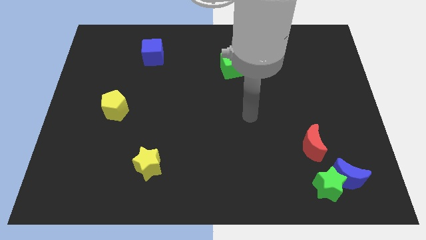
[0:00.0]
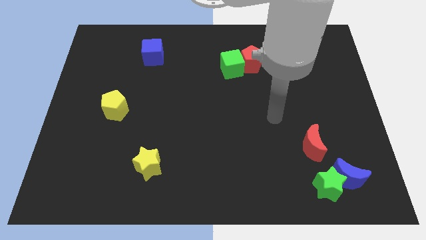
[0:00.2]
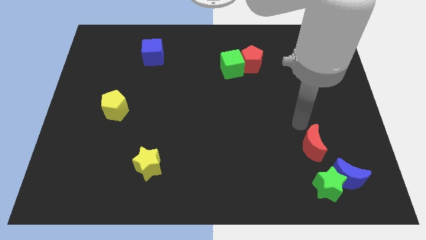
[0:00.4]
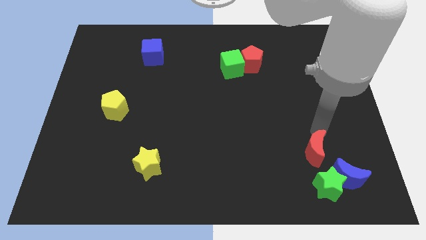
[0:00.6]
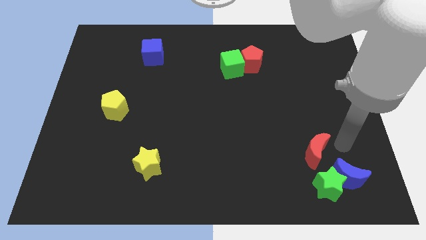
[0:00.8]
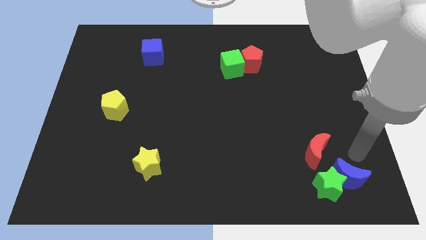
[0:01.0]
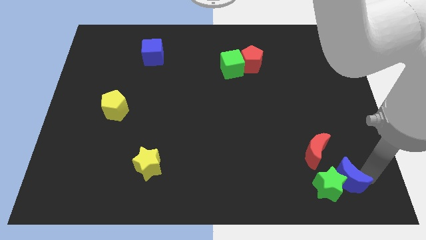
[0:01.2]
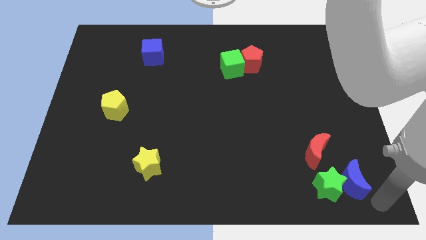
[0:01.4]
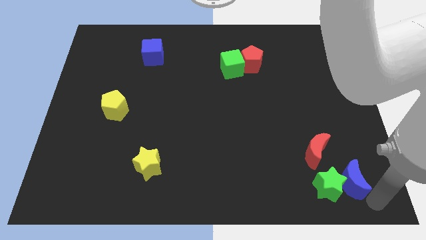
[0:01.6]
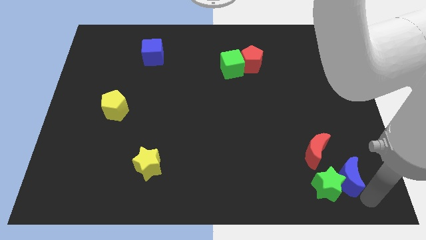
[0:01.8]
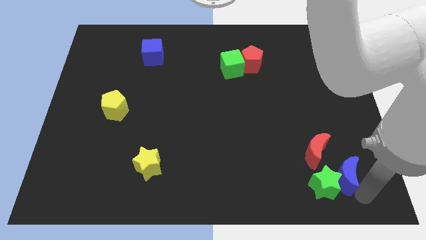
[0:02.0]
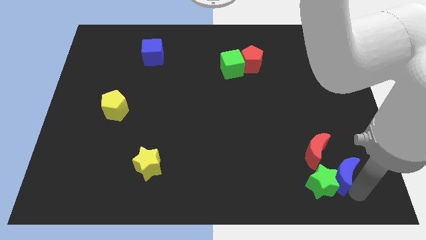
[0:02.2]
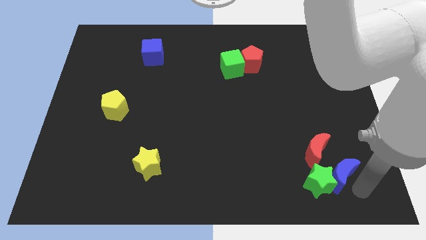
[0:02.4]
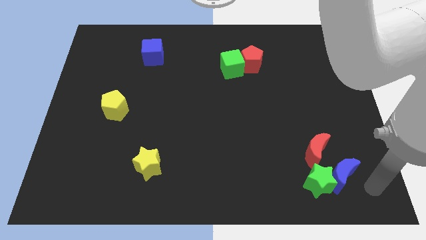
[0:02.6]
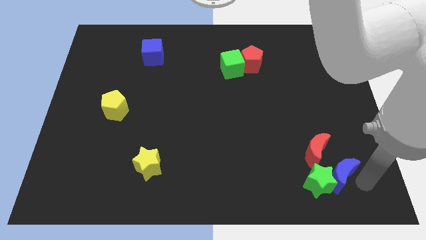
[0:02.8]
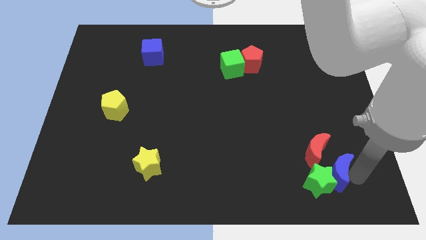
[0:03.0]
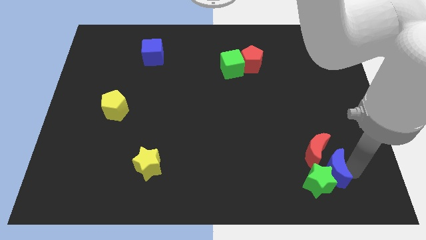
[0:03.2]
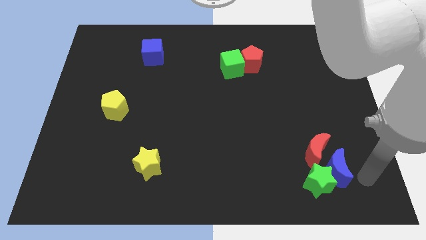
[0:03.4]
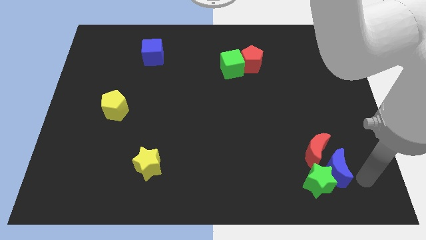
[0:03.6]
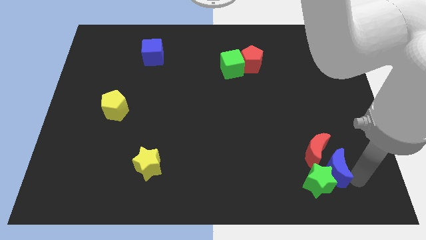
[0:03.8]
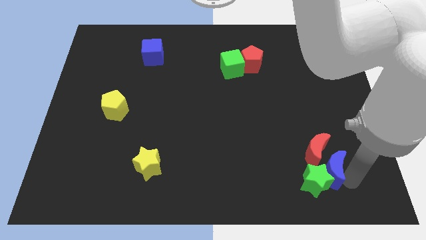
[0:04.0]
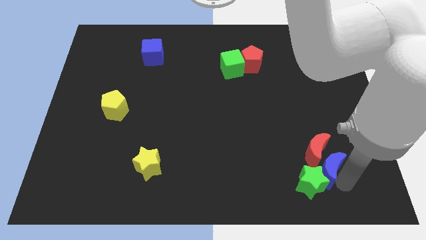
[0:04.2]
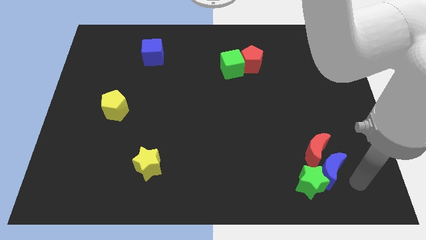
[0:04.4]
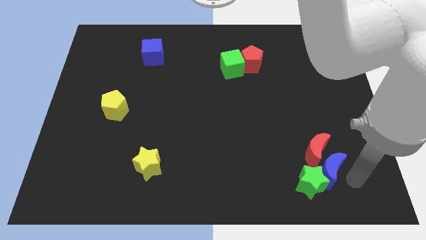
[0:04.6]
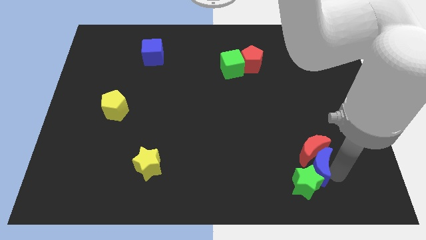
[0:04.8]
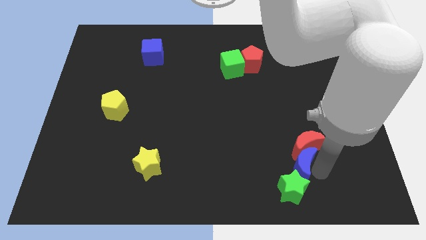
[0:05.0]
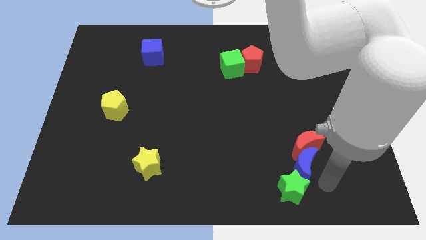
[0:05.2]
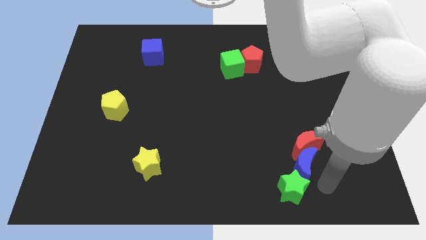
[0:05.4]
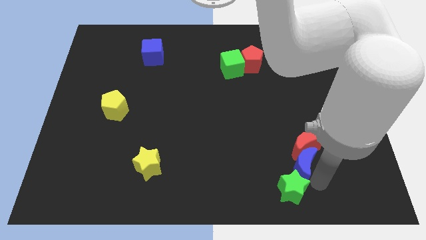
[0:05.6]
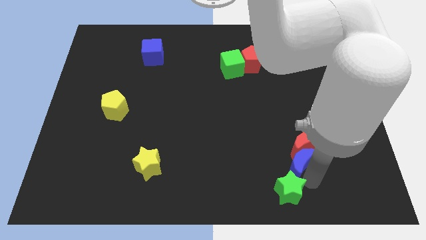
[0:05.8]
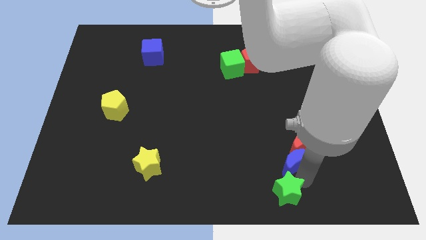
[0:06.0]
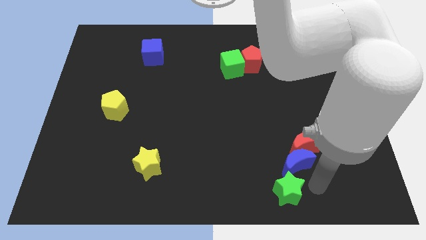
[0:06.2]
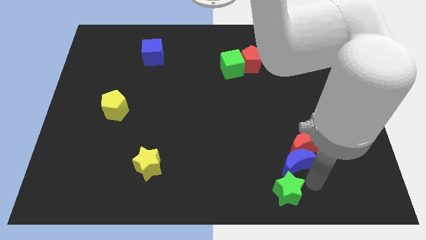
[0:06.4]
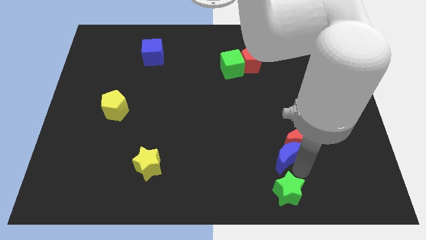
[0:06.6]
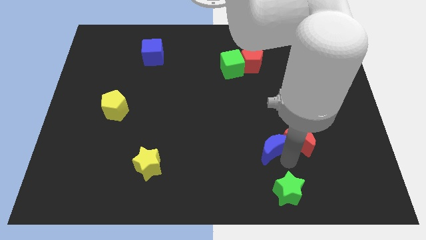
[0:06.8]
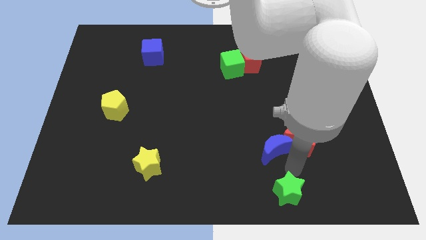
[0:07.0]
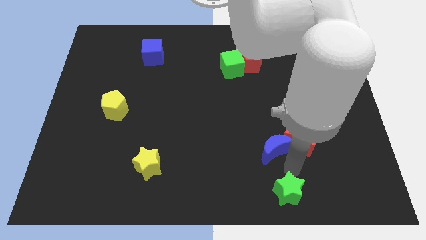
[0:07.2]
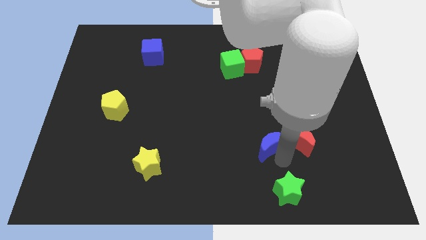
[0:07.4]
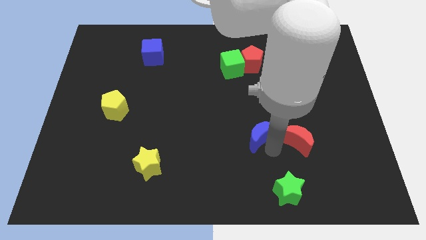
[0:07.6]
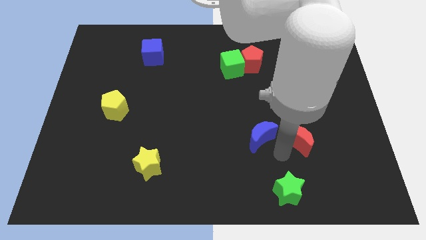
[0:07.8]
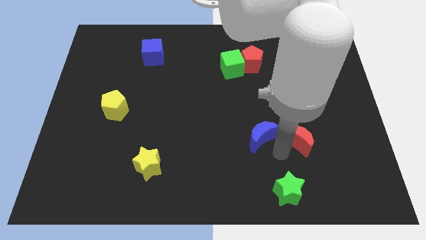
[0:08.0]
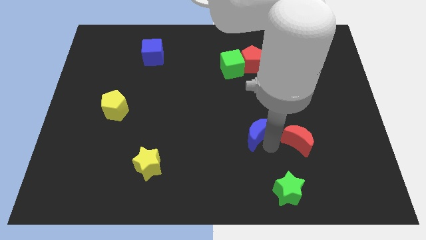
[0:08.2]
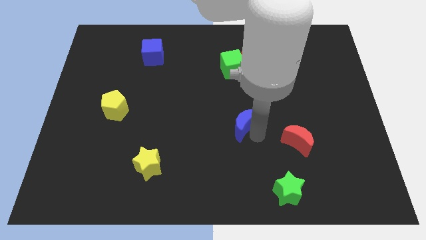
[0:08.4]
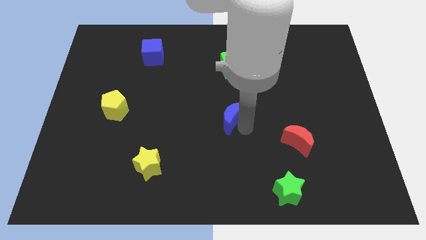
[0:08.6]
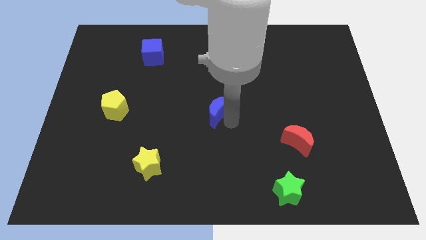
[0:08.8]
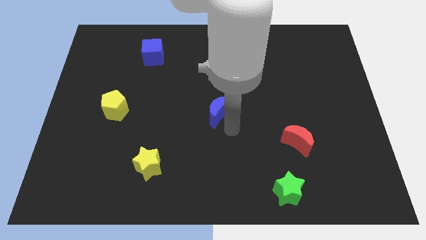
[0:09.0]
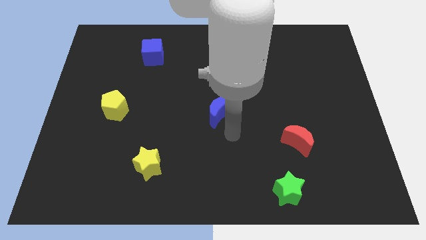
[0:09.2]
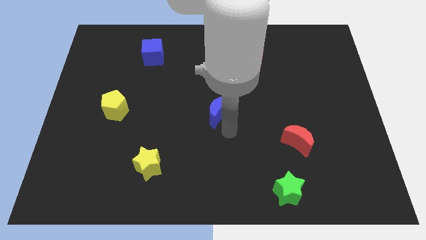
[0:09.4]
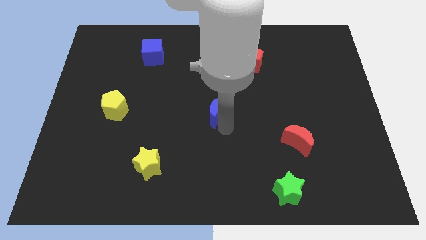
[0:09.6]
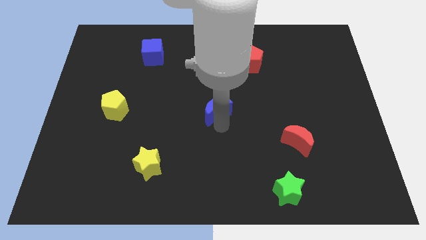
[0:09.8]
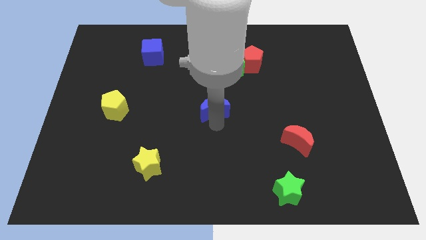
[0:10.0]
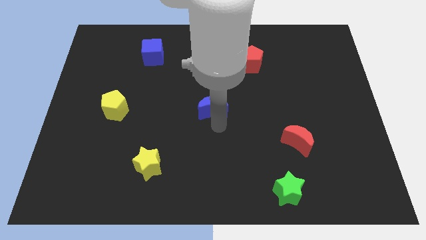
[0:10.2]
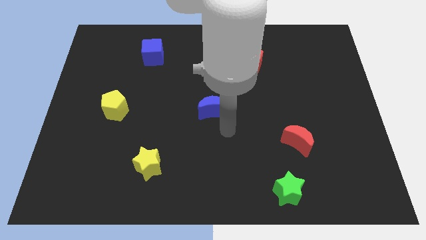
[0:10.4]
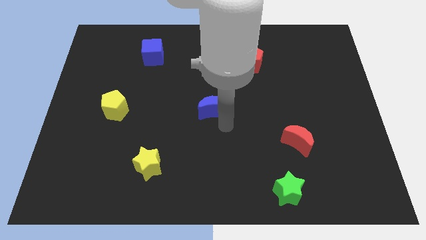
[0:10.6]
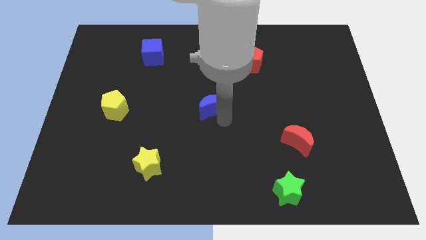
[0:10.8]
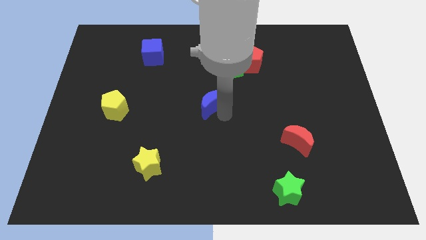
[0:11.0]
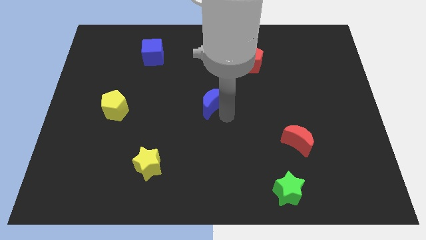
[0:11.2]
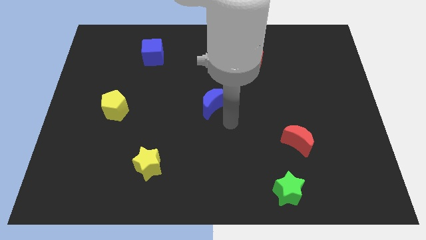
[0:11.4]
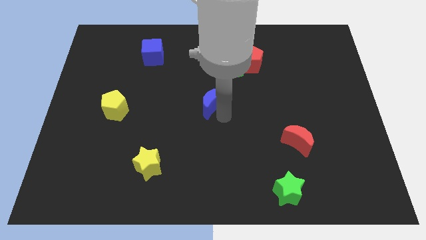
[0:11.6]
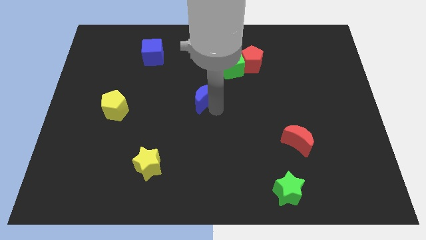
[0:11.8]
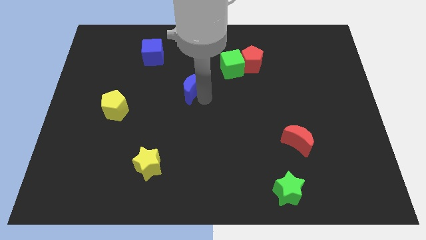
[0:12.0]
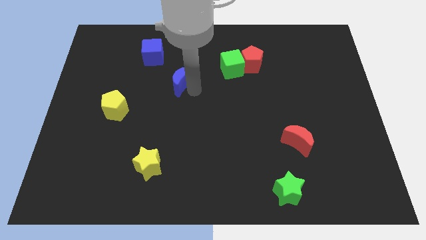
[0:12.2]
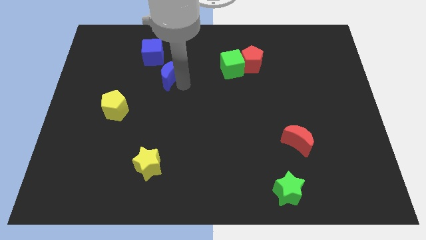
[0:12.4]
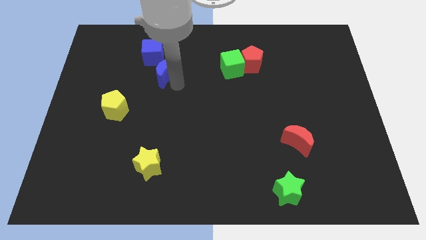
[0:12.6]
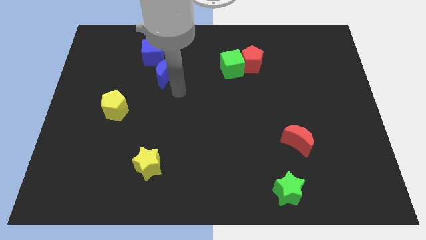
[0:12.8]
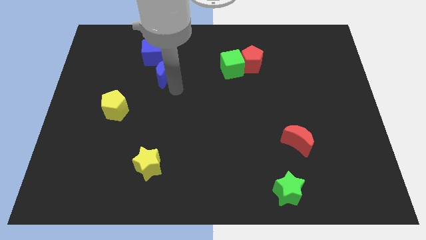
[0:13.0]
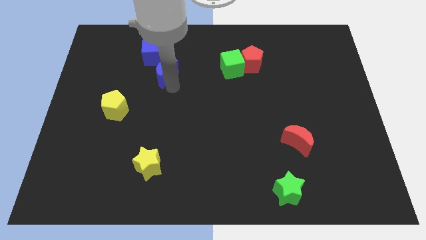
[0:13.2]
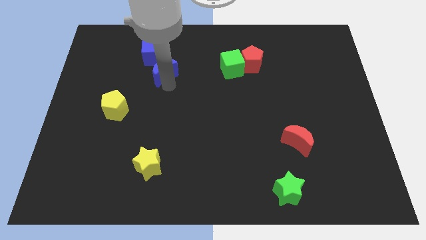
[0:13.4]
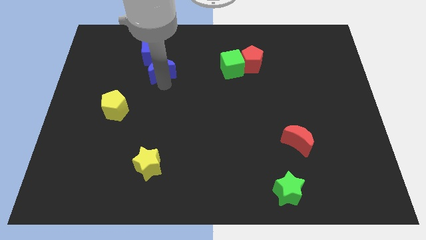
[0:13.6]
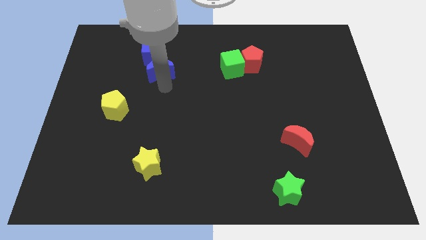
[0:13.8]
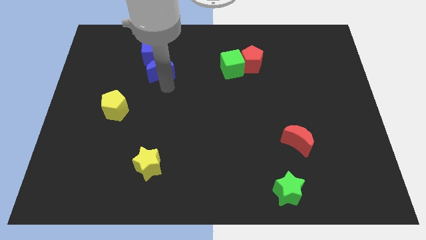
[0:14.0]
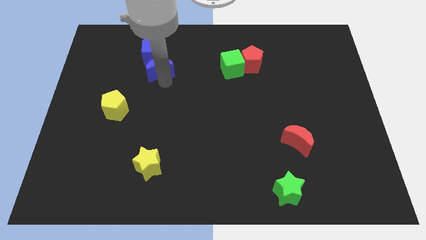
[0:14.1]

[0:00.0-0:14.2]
slide the blue moon to the blue cube
